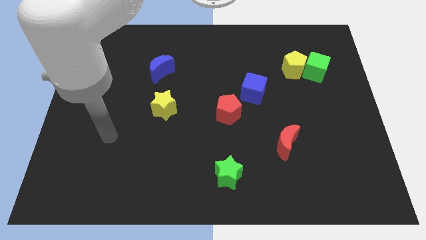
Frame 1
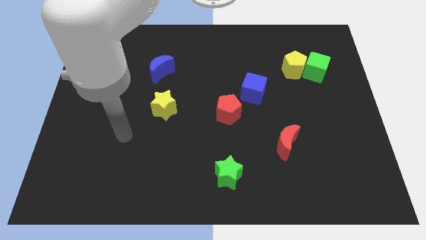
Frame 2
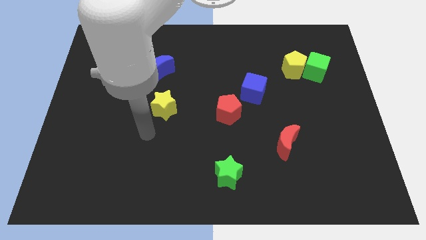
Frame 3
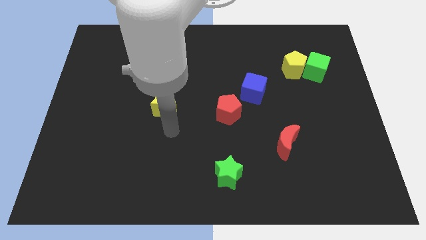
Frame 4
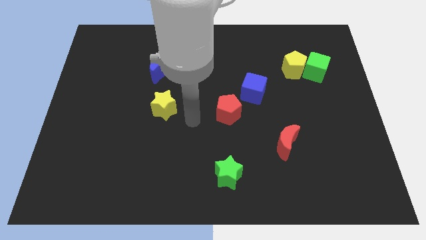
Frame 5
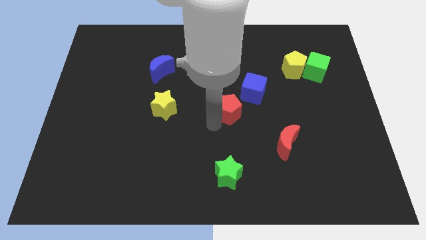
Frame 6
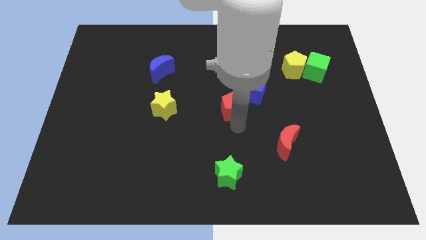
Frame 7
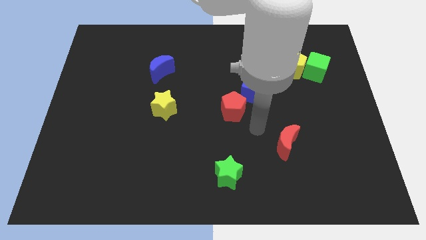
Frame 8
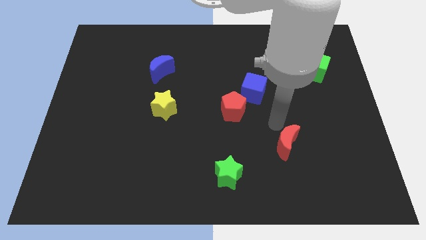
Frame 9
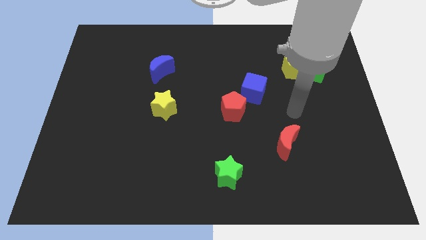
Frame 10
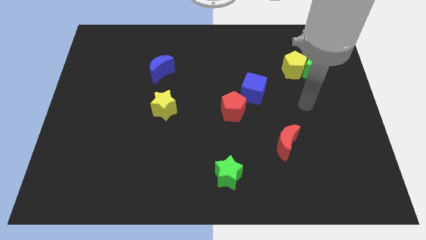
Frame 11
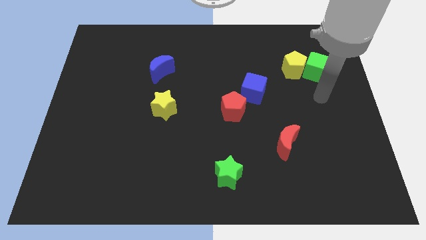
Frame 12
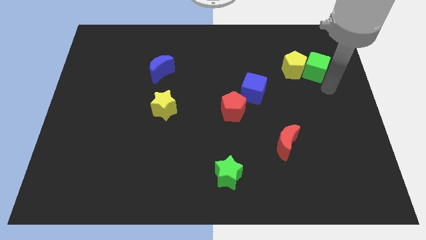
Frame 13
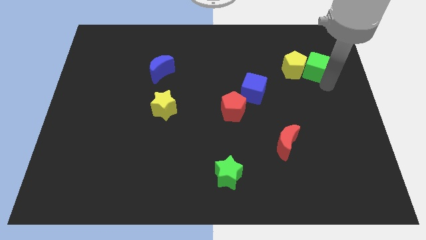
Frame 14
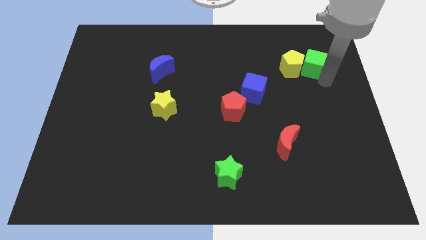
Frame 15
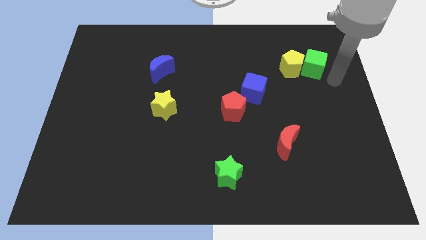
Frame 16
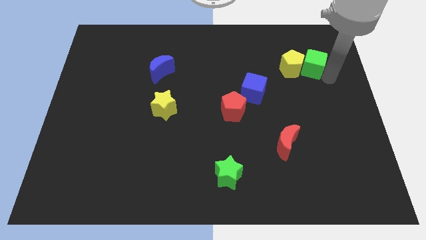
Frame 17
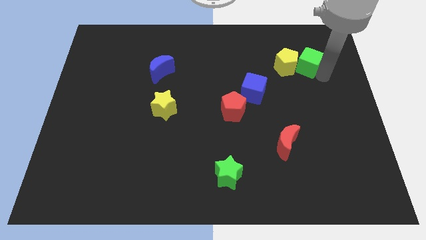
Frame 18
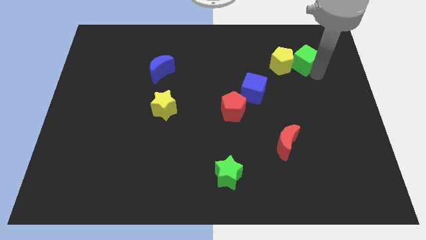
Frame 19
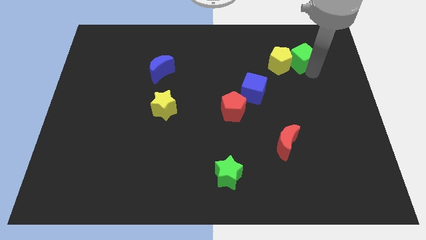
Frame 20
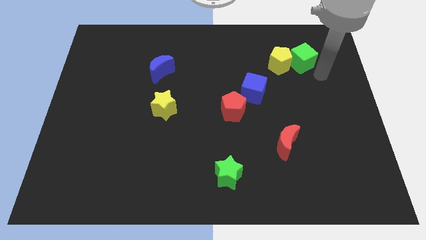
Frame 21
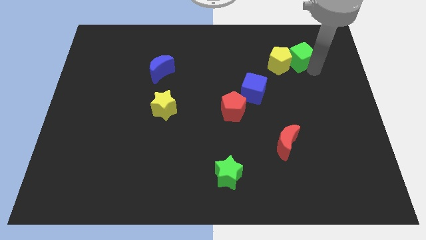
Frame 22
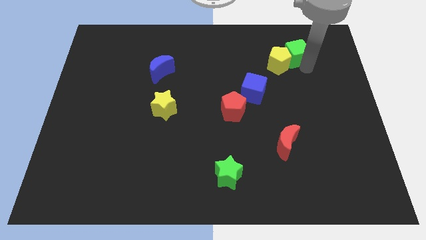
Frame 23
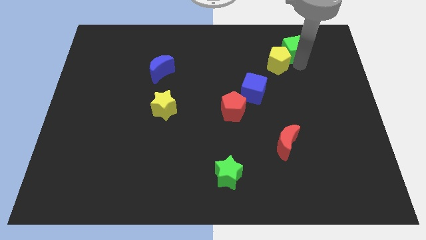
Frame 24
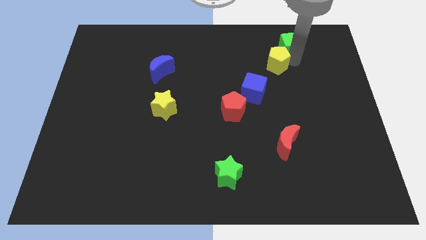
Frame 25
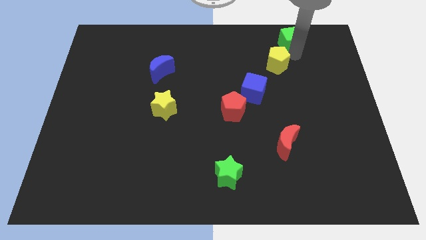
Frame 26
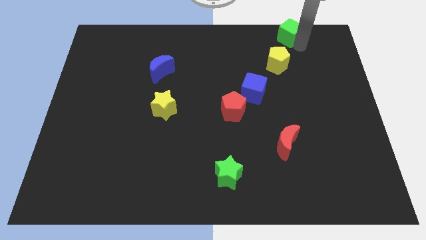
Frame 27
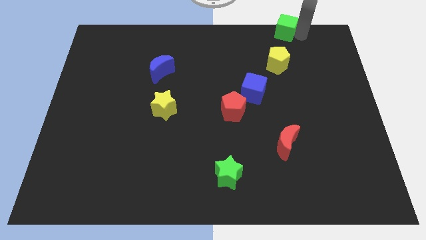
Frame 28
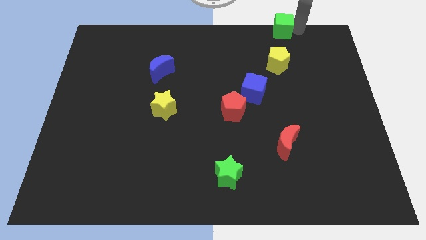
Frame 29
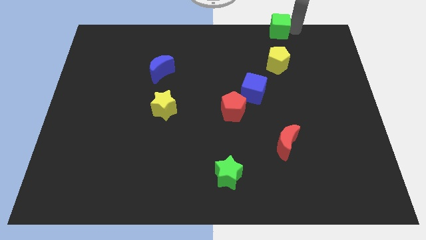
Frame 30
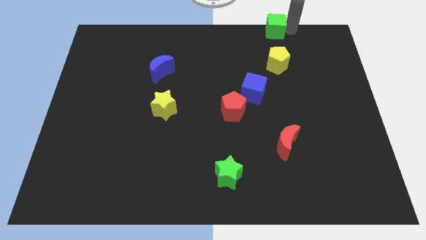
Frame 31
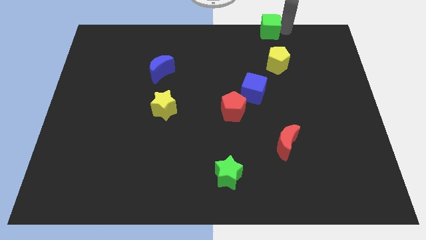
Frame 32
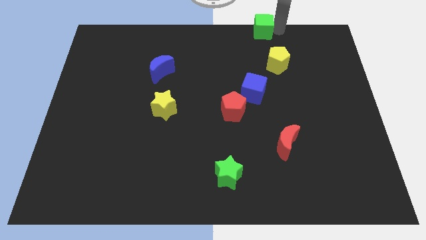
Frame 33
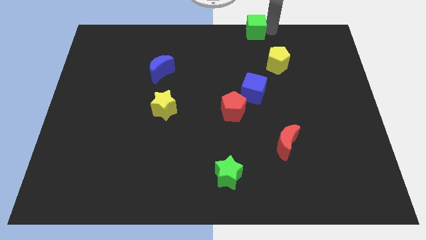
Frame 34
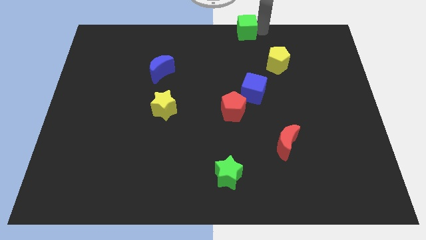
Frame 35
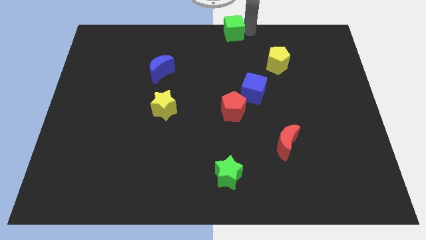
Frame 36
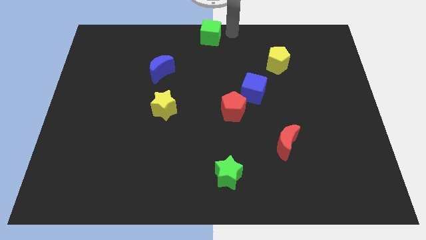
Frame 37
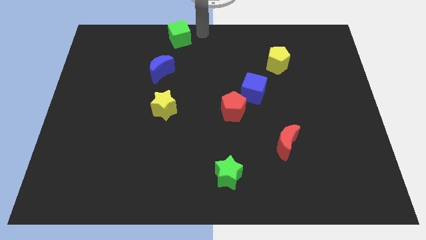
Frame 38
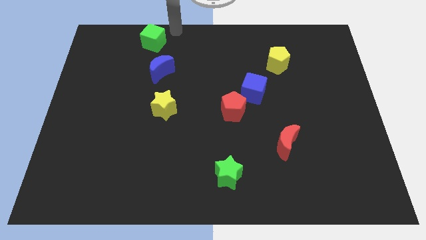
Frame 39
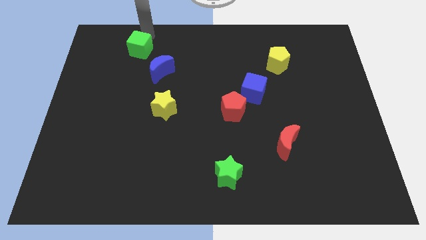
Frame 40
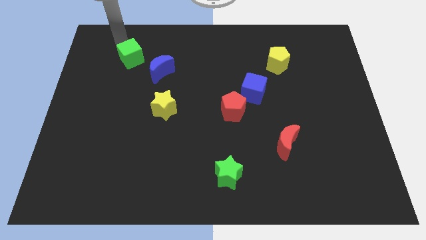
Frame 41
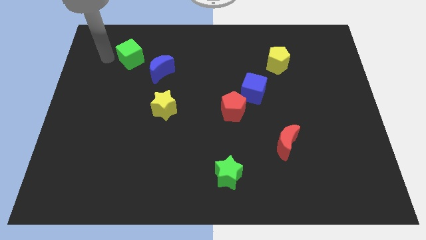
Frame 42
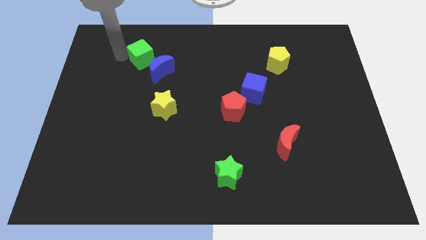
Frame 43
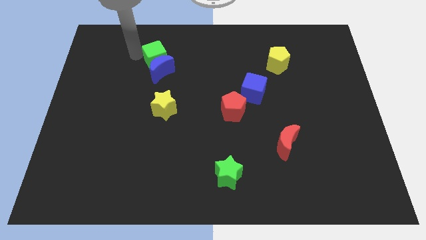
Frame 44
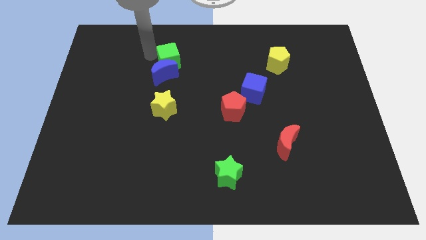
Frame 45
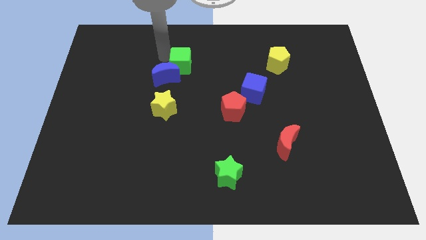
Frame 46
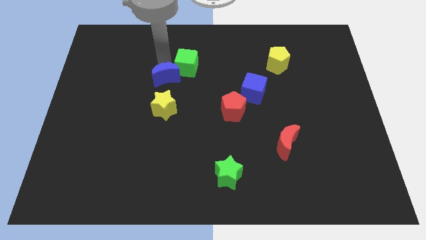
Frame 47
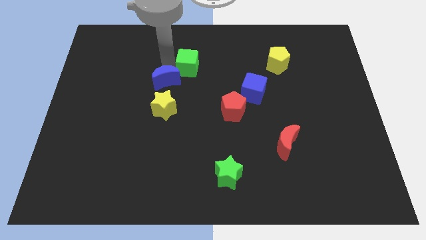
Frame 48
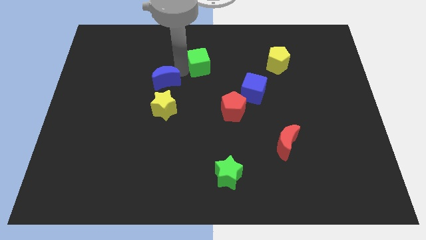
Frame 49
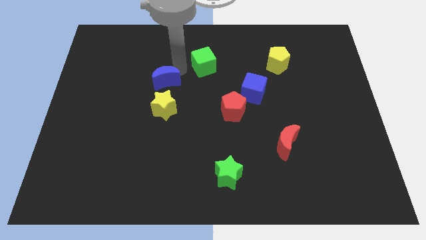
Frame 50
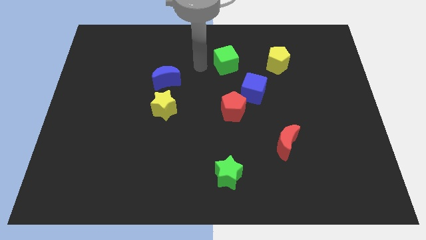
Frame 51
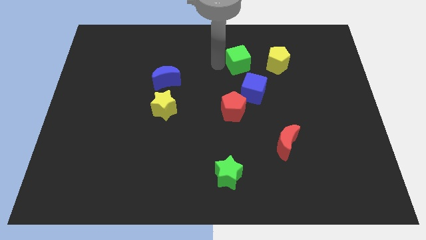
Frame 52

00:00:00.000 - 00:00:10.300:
put the green cube above the blue cube

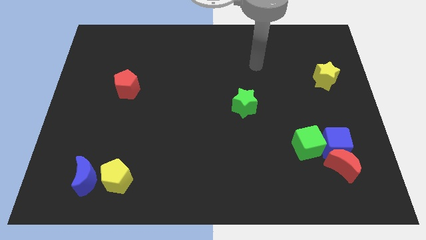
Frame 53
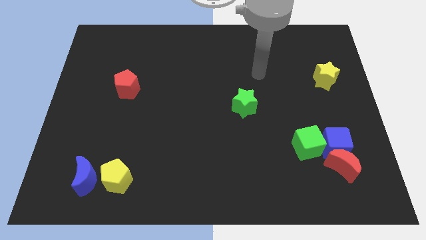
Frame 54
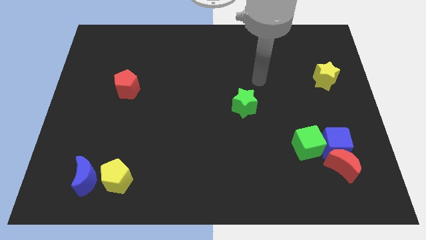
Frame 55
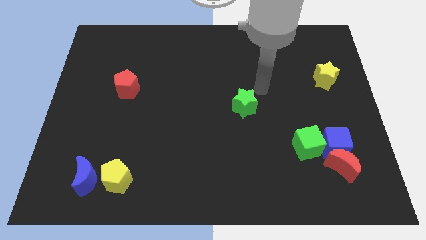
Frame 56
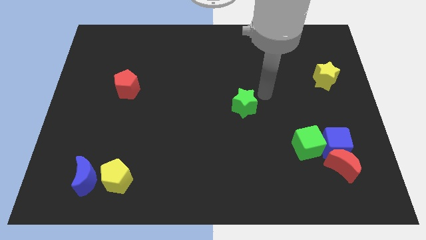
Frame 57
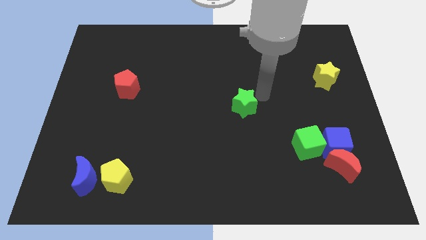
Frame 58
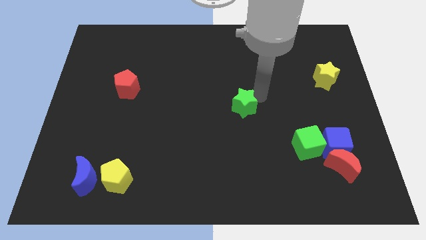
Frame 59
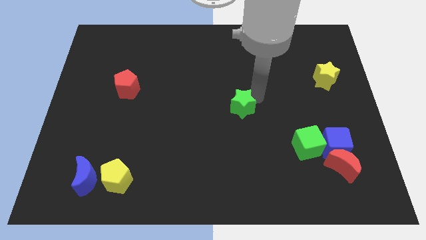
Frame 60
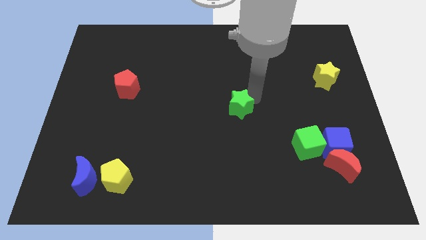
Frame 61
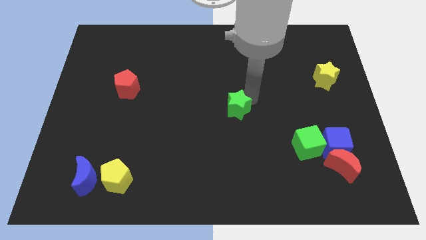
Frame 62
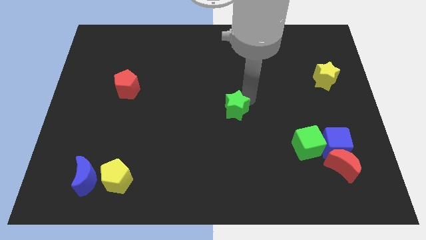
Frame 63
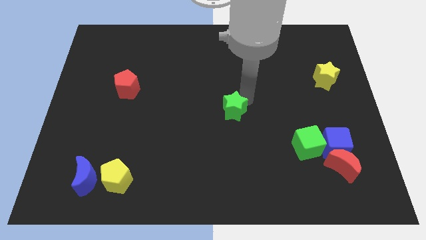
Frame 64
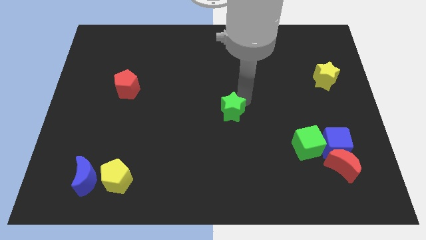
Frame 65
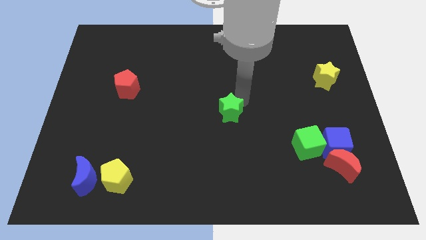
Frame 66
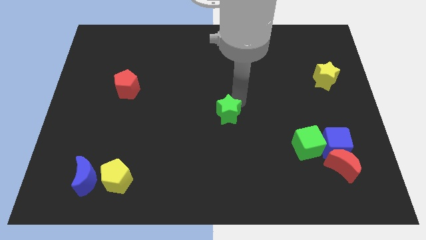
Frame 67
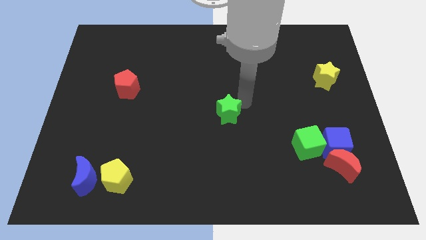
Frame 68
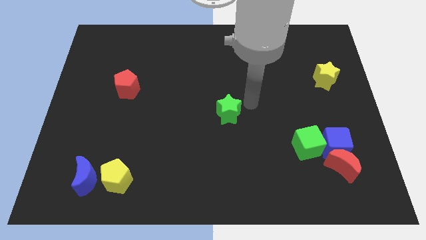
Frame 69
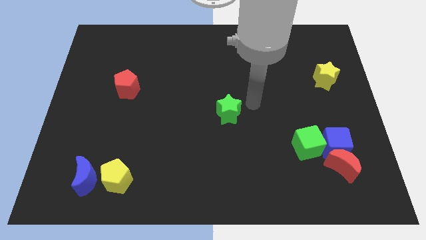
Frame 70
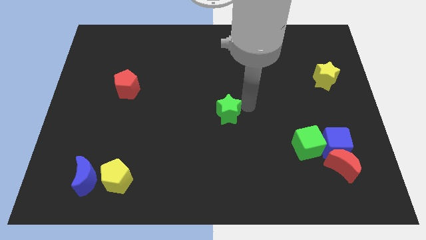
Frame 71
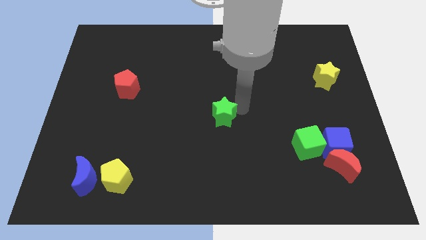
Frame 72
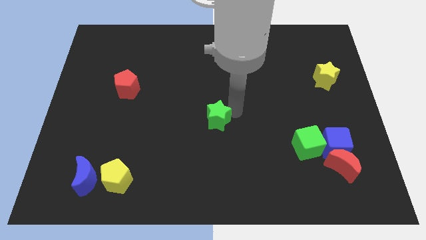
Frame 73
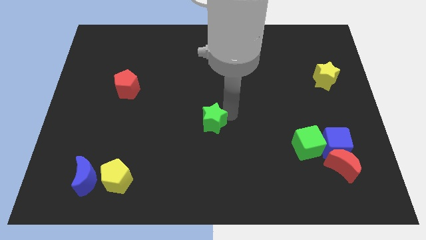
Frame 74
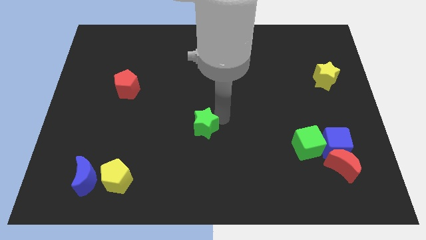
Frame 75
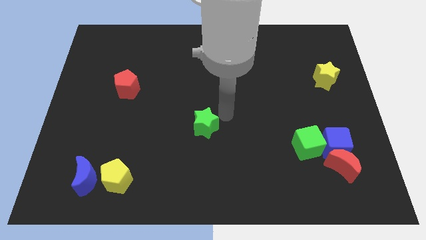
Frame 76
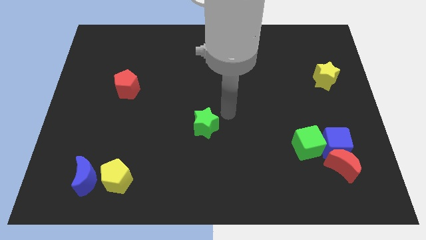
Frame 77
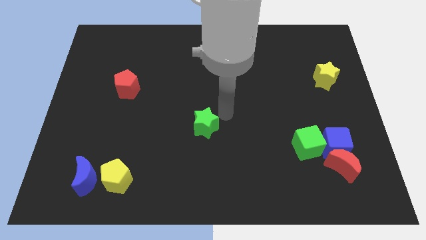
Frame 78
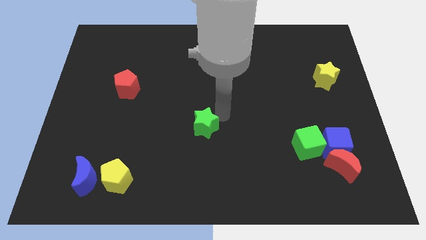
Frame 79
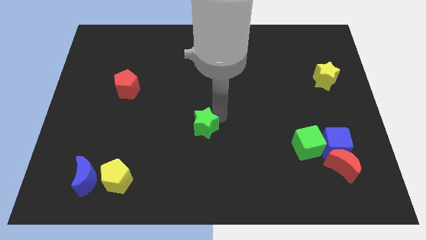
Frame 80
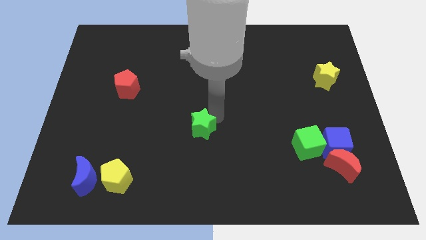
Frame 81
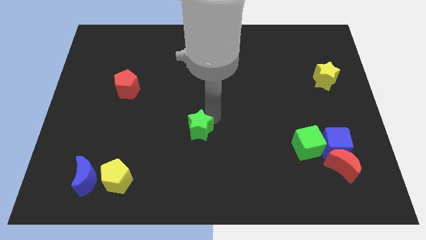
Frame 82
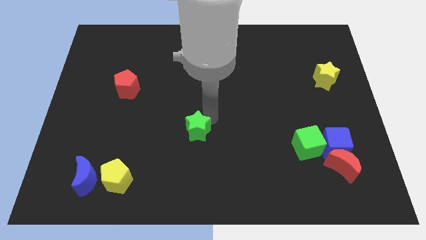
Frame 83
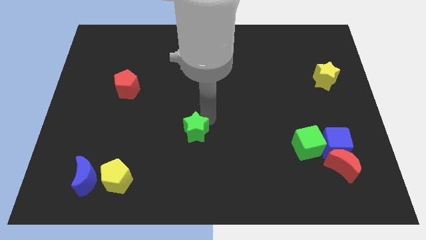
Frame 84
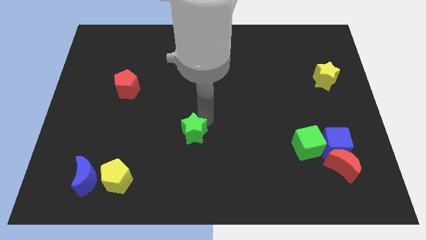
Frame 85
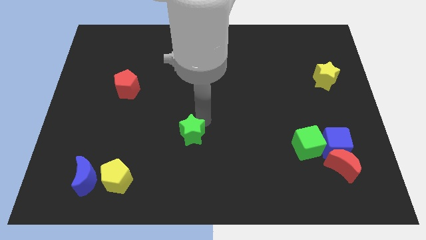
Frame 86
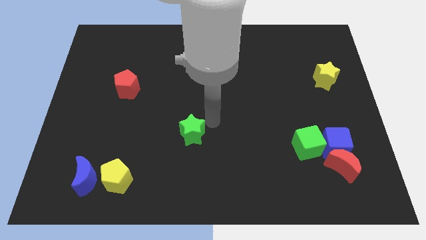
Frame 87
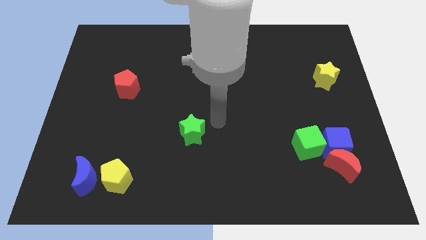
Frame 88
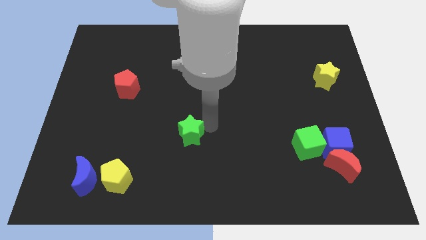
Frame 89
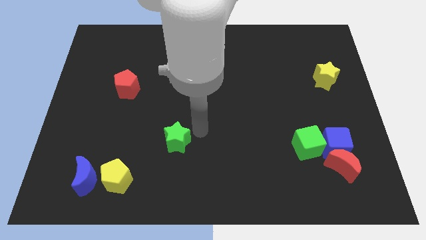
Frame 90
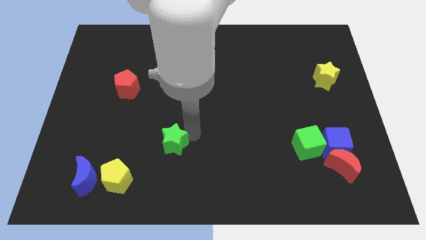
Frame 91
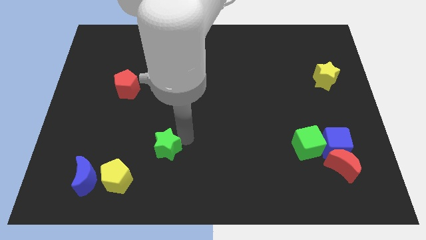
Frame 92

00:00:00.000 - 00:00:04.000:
slide the green star to the top right side of the yellow pentagon
